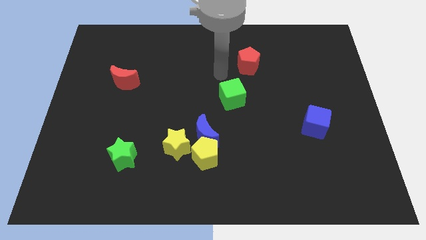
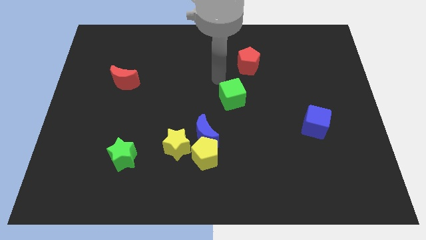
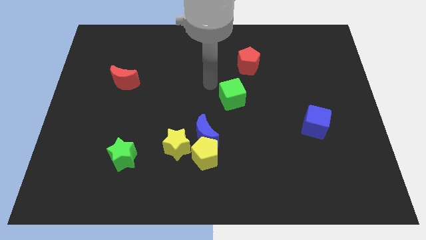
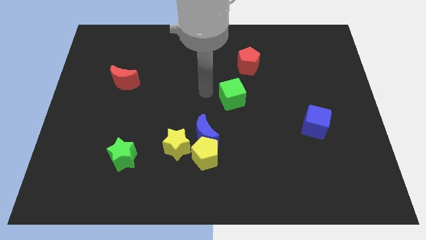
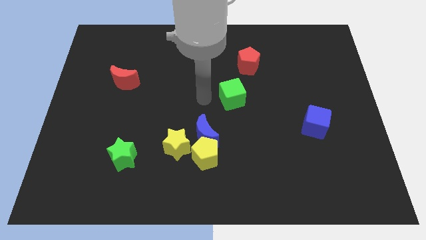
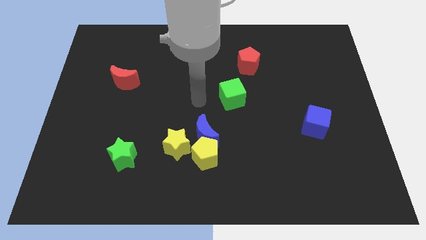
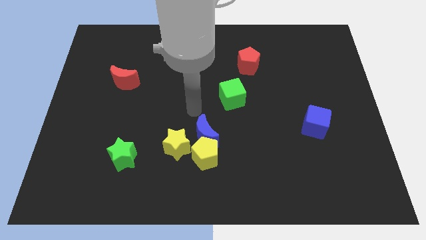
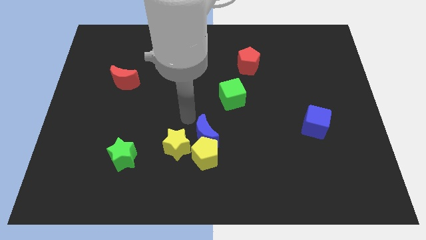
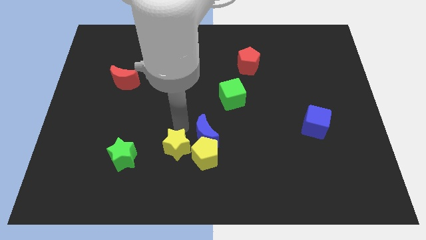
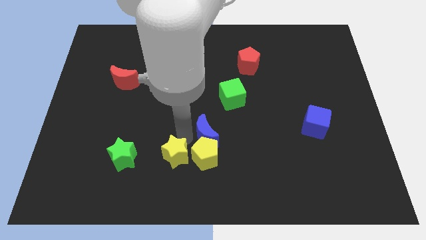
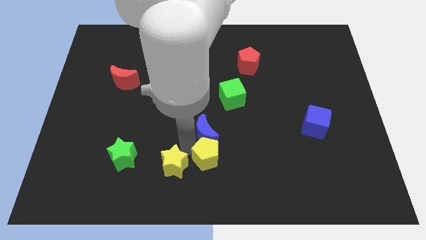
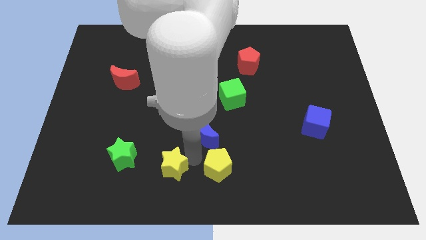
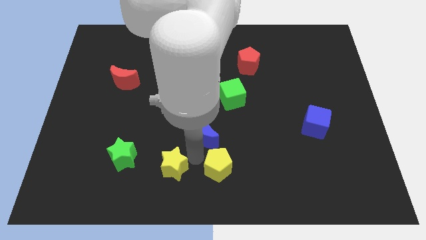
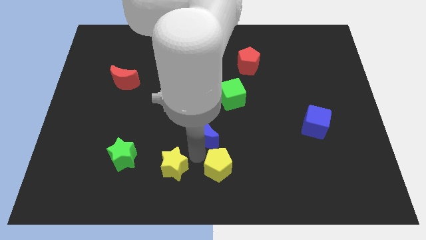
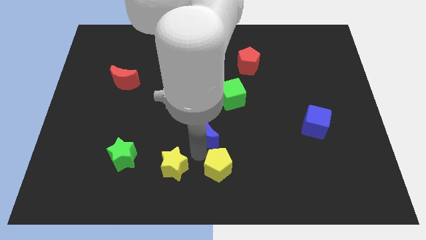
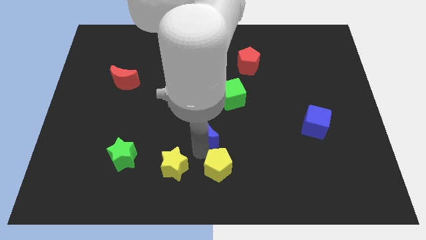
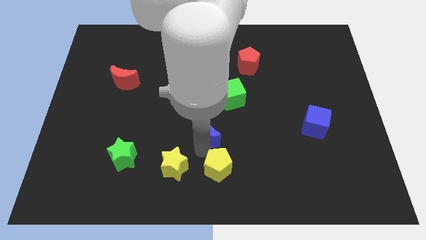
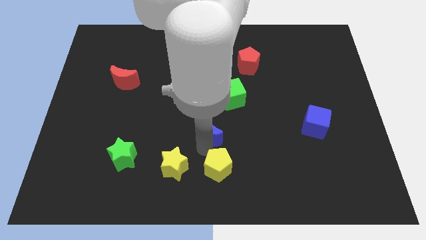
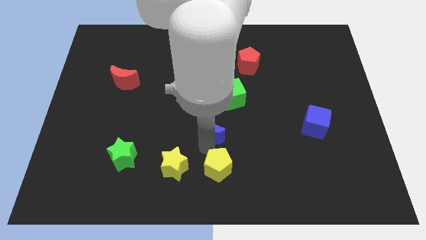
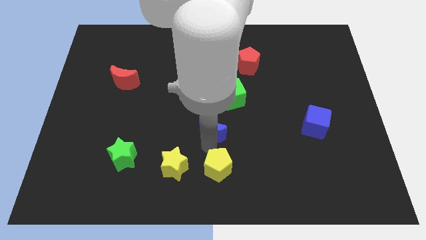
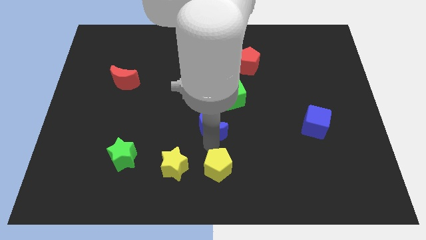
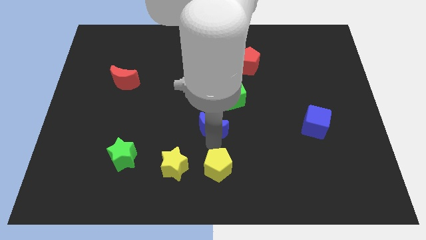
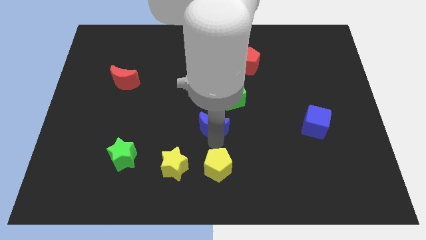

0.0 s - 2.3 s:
pull the blue moon apart from the yellow pentagon and yellow star

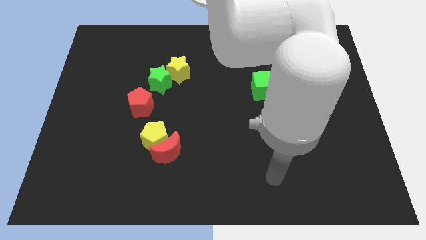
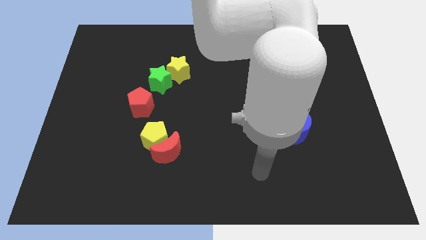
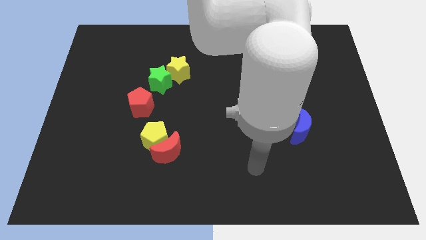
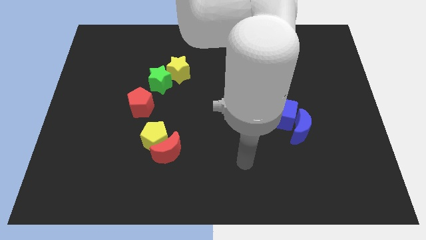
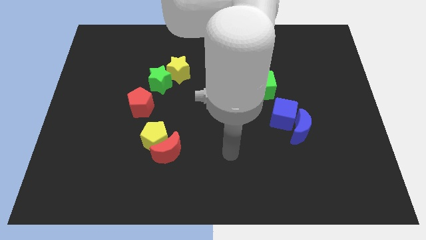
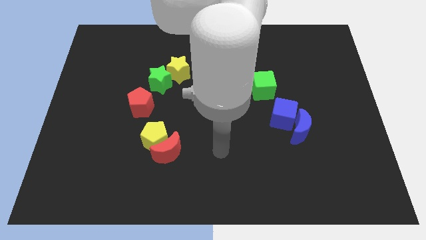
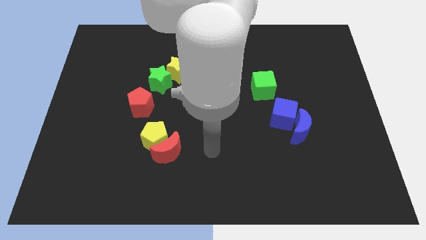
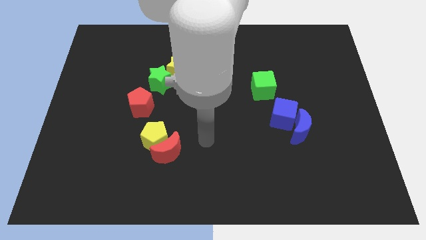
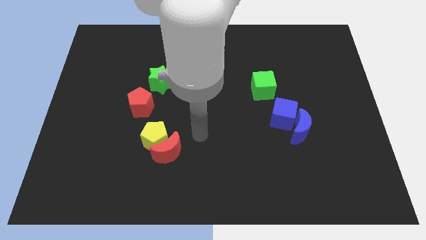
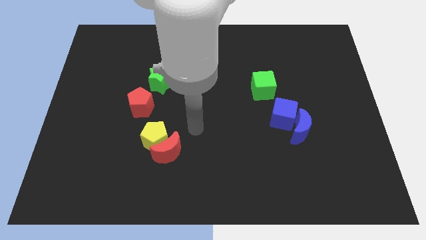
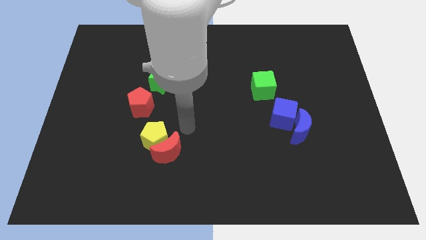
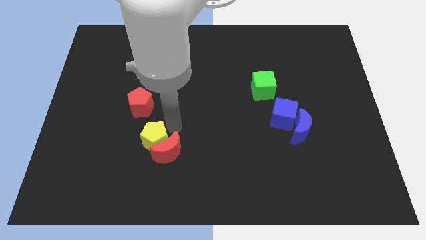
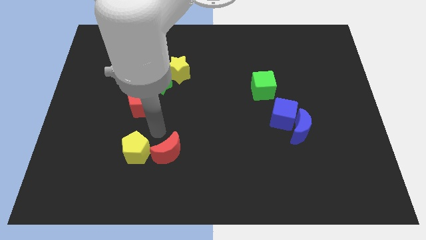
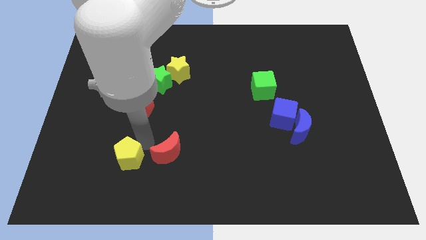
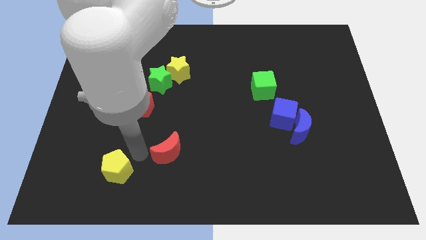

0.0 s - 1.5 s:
move the red moon away from the yellow pentagon

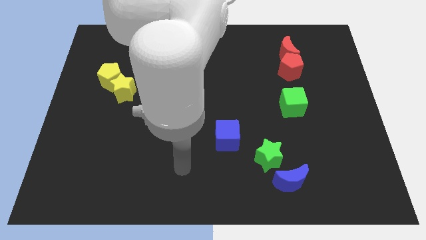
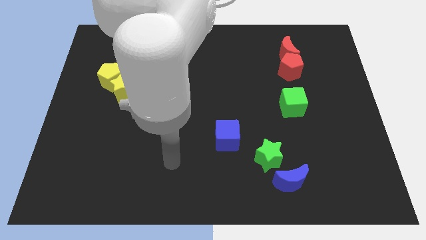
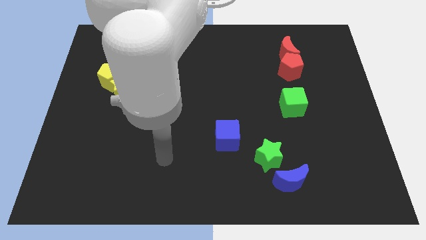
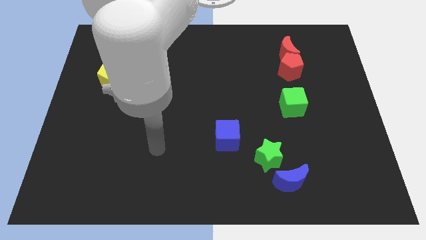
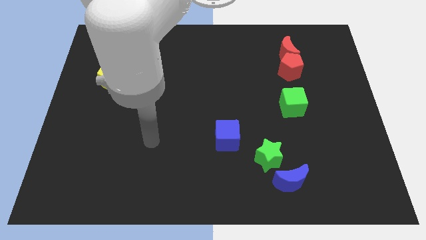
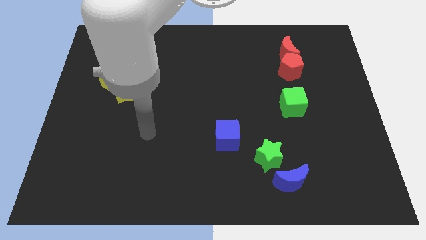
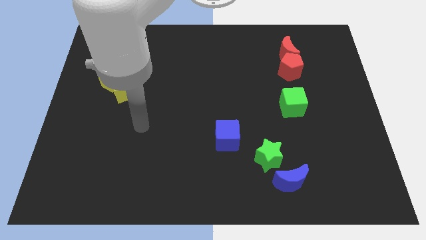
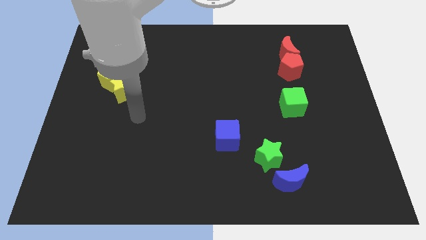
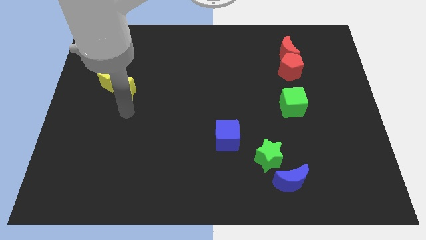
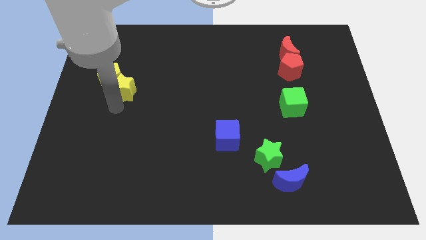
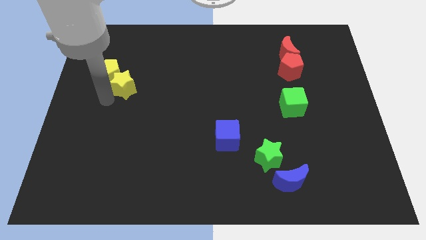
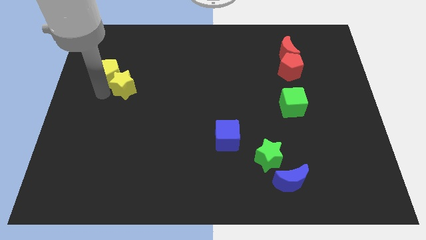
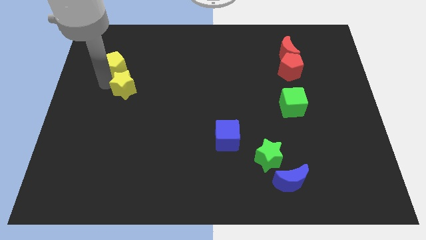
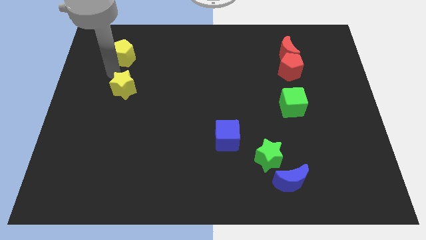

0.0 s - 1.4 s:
pull the yellow star apart from the yellow pentagon

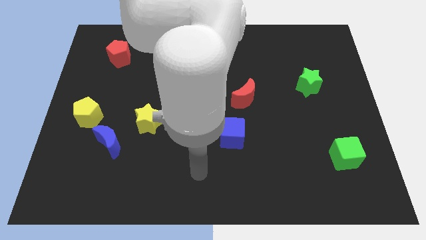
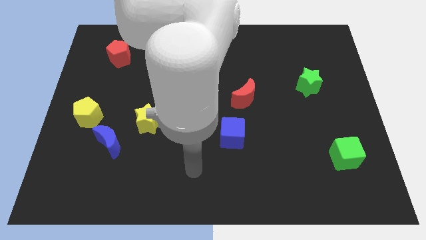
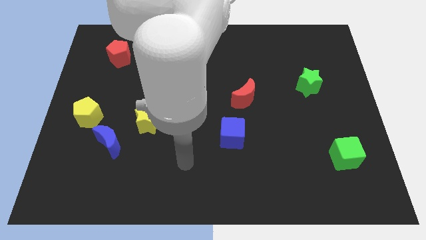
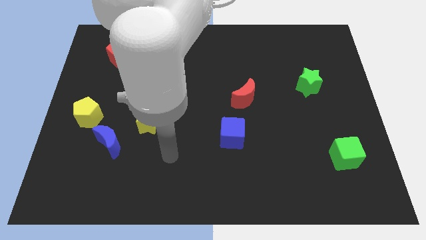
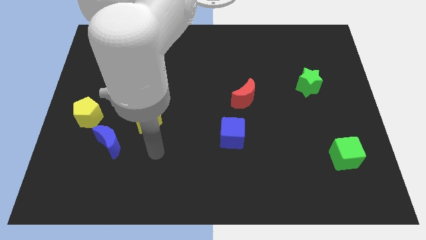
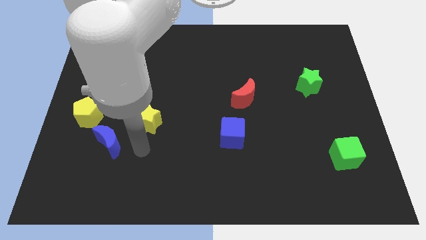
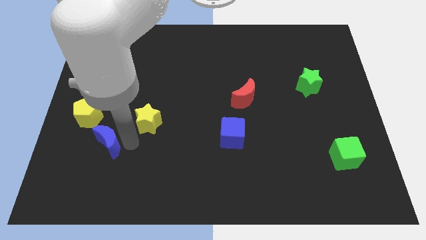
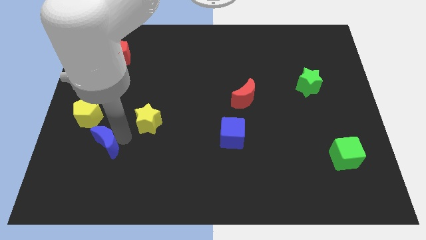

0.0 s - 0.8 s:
move the yellow star away from the blue moon

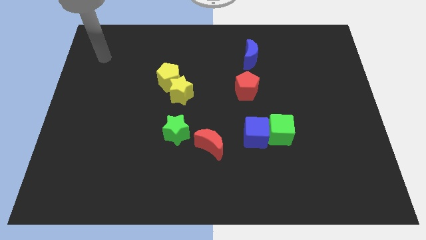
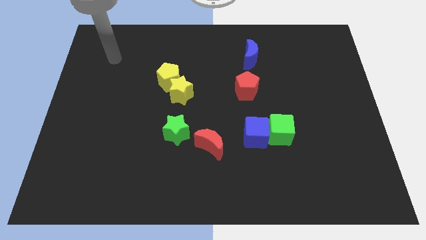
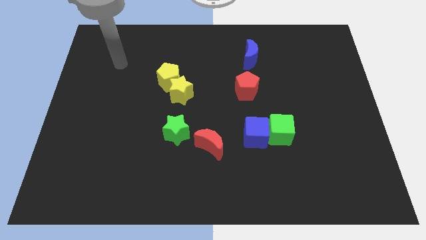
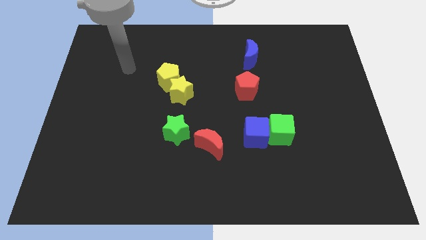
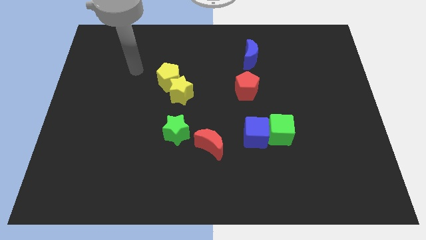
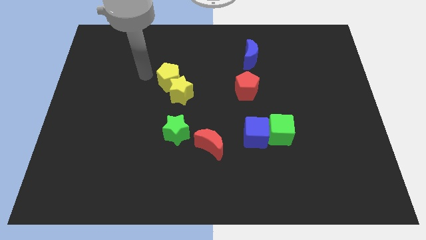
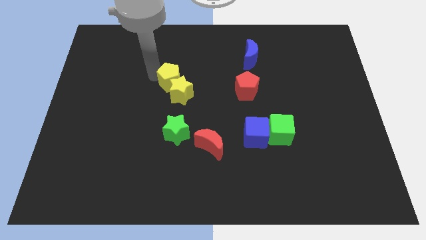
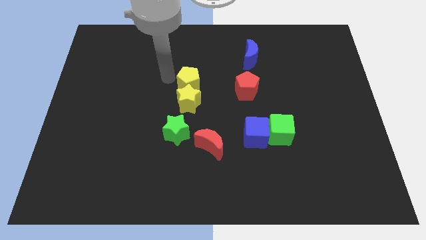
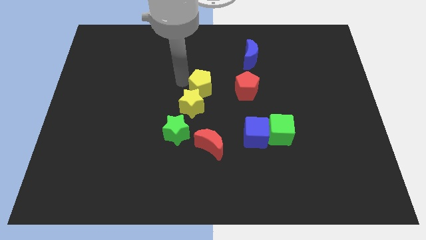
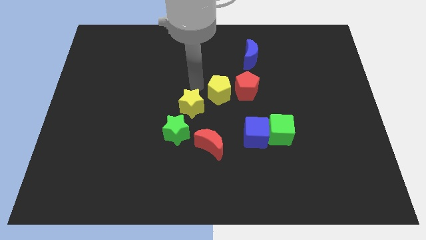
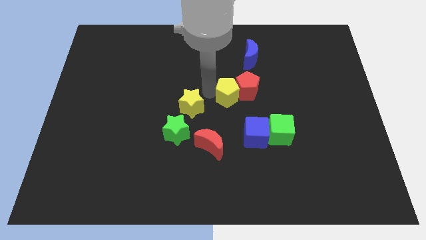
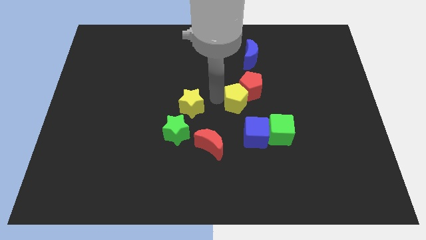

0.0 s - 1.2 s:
separate the yellow star from the yellow pentagon

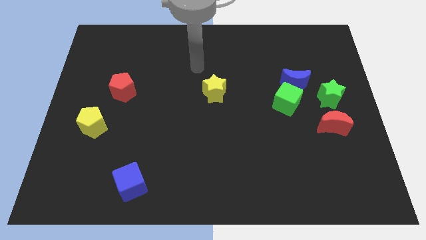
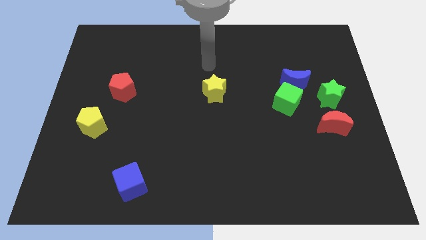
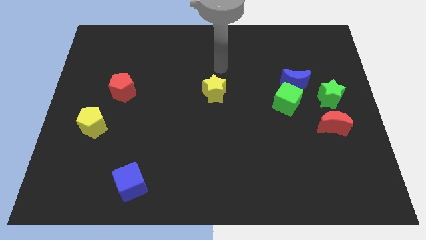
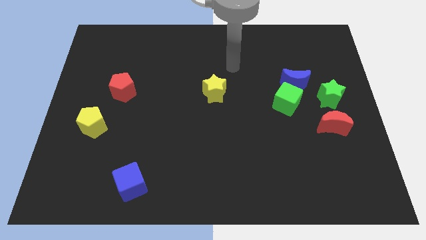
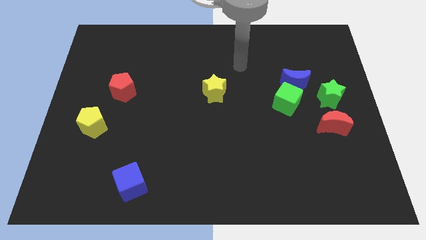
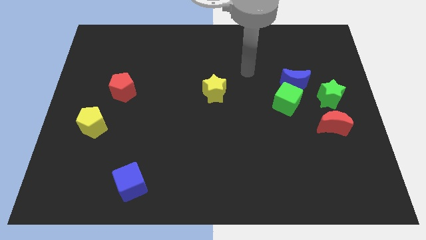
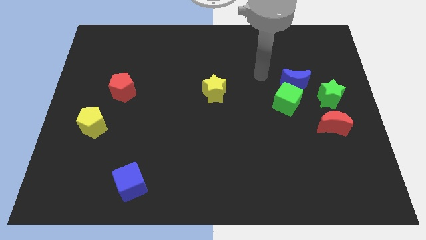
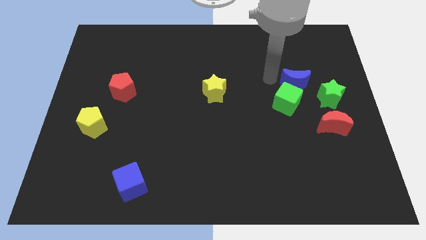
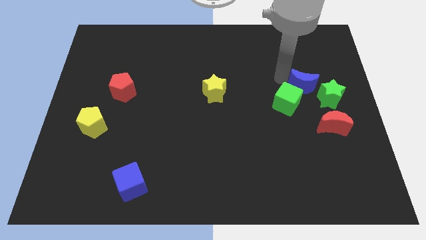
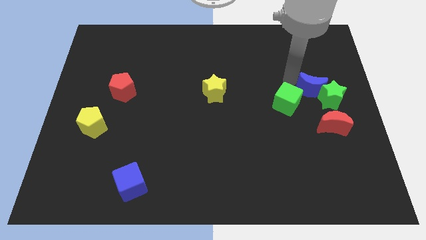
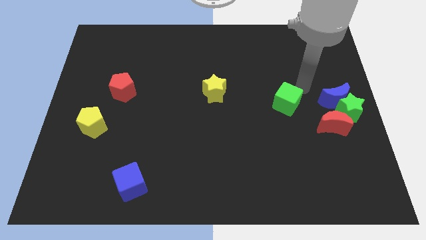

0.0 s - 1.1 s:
separate the green cube from the blue moon

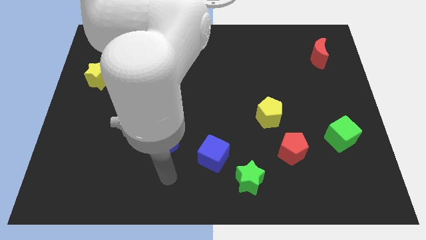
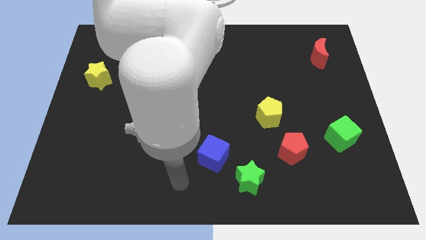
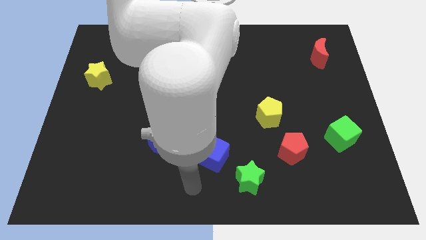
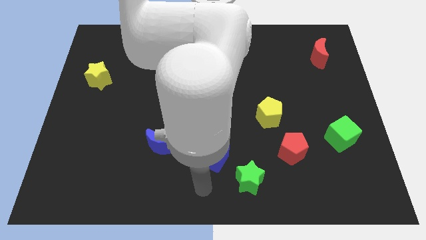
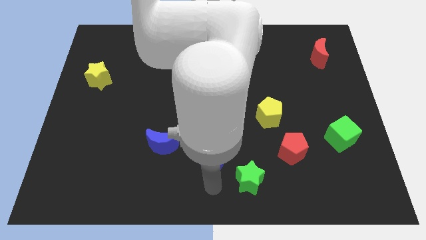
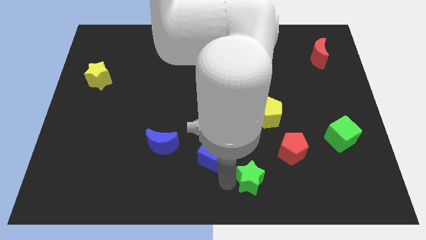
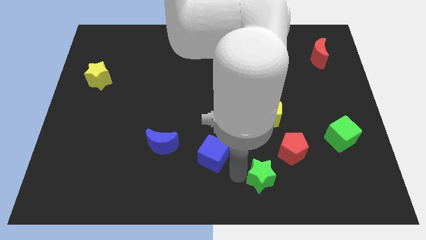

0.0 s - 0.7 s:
move the blue cube away from the green star

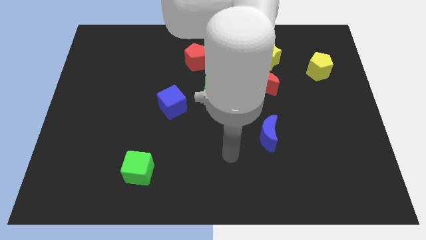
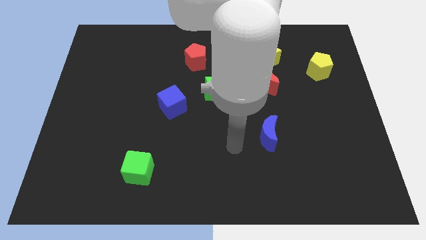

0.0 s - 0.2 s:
pull the red moon apart from the yellow star
